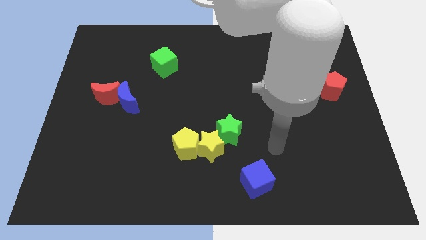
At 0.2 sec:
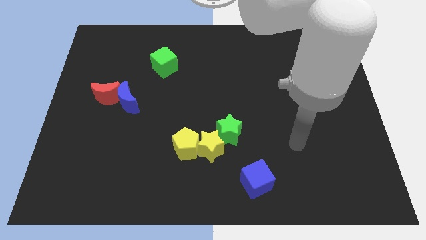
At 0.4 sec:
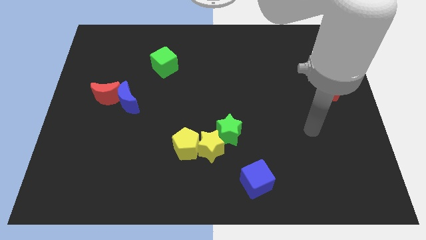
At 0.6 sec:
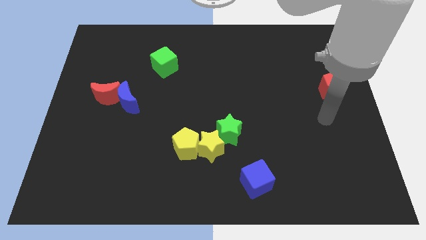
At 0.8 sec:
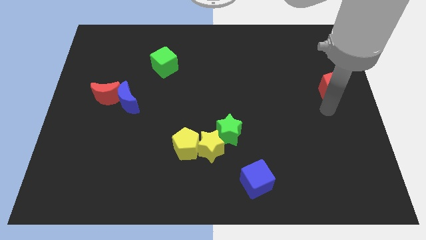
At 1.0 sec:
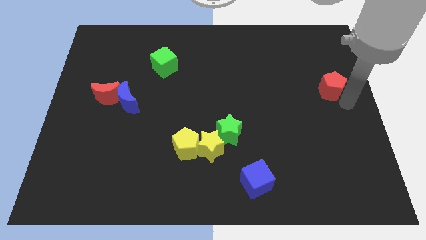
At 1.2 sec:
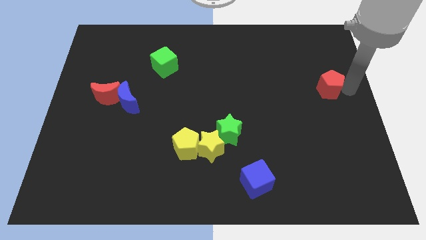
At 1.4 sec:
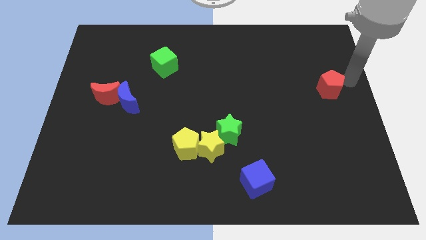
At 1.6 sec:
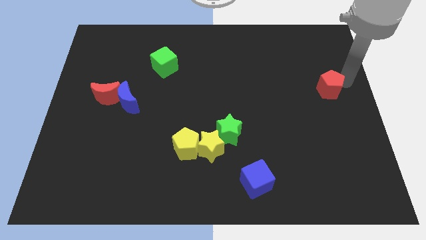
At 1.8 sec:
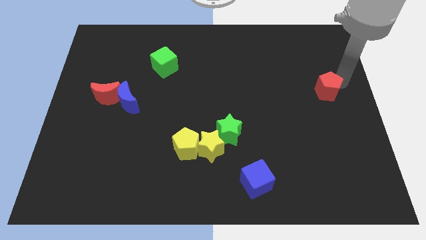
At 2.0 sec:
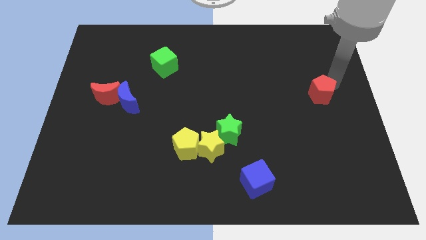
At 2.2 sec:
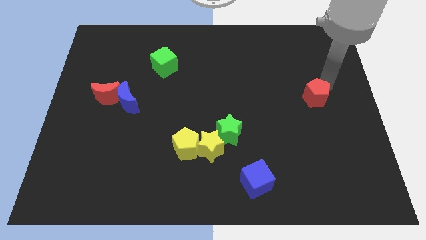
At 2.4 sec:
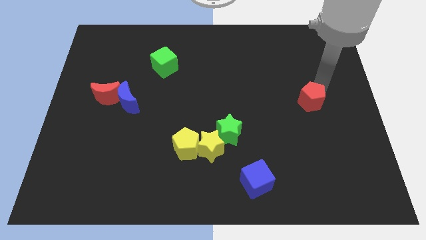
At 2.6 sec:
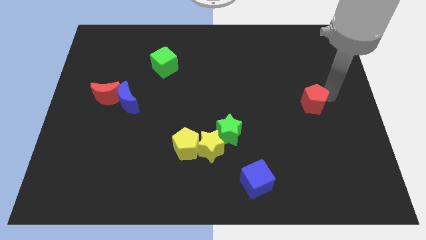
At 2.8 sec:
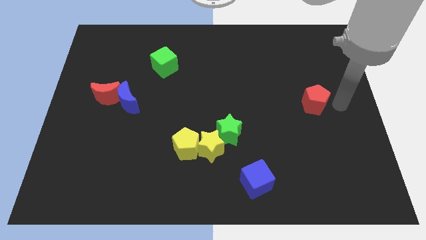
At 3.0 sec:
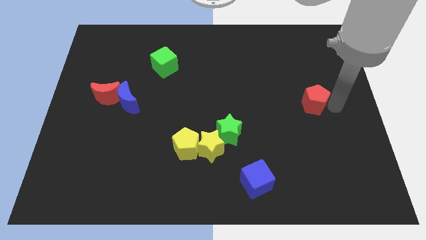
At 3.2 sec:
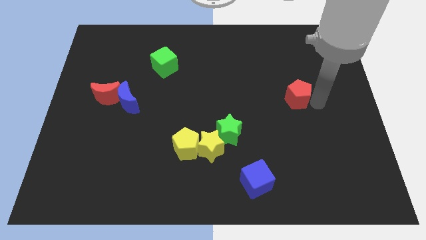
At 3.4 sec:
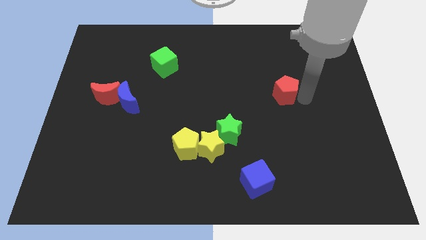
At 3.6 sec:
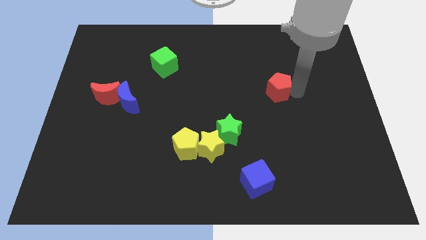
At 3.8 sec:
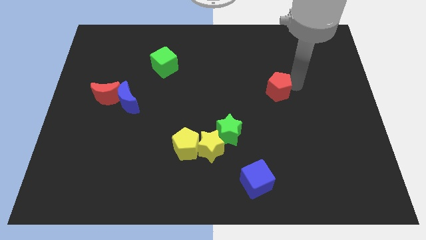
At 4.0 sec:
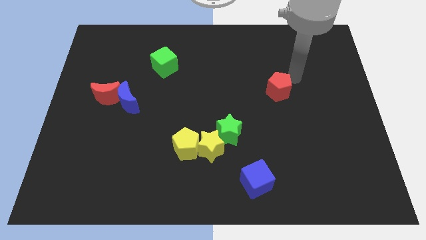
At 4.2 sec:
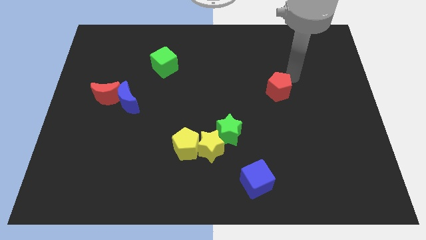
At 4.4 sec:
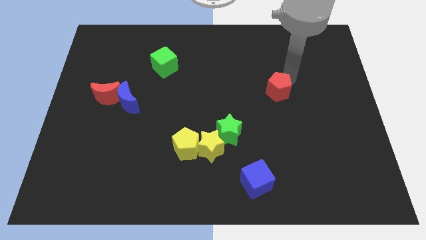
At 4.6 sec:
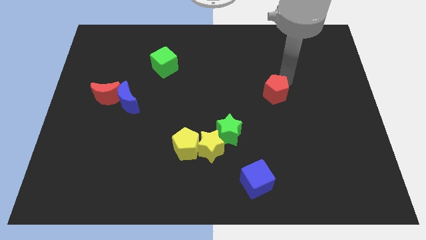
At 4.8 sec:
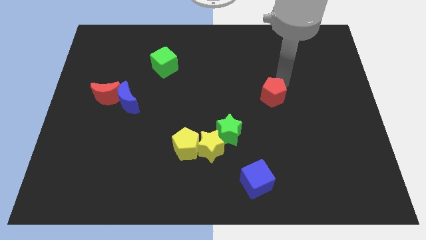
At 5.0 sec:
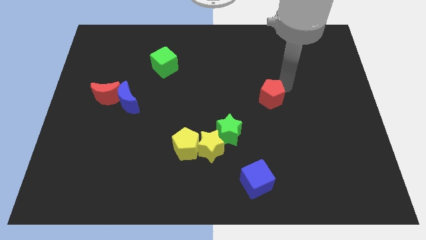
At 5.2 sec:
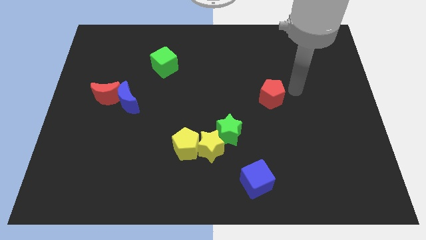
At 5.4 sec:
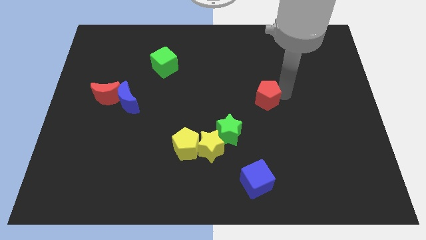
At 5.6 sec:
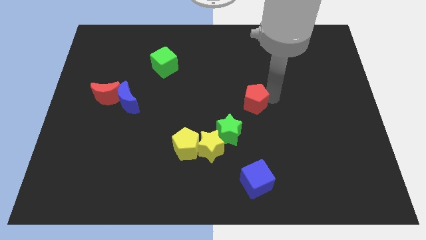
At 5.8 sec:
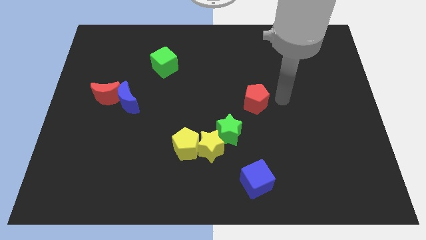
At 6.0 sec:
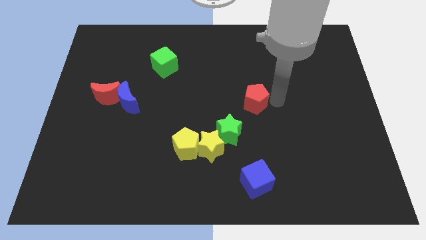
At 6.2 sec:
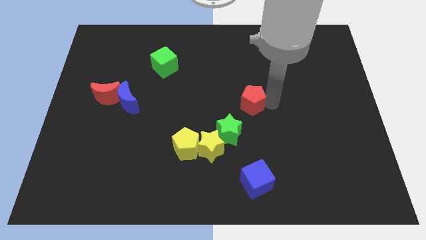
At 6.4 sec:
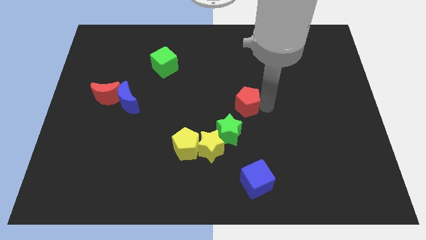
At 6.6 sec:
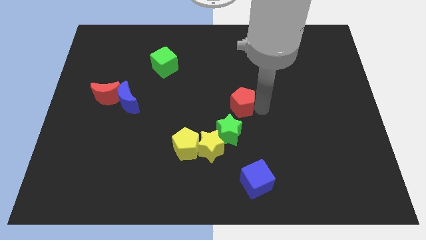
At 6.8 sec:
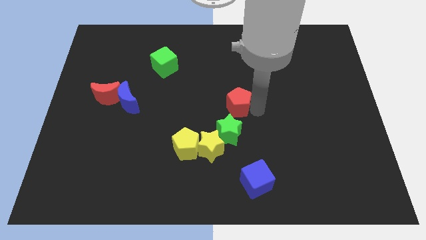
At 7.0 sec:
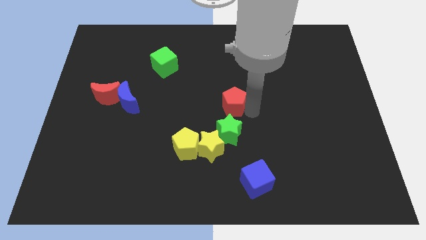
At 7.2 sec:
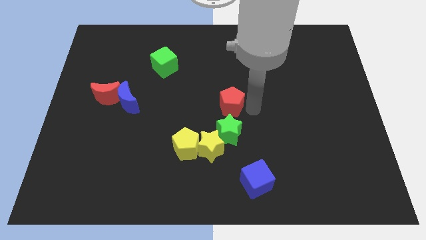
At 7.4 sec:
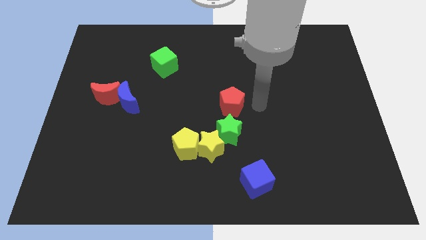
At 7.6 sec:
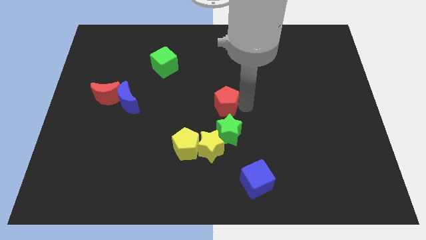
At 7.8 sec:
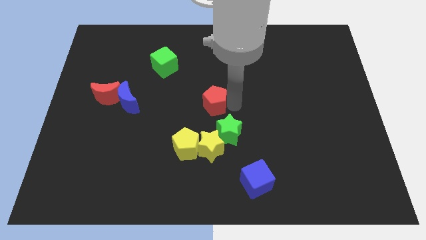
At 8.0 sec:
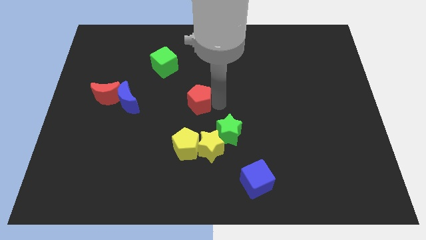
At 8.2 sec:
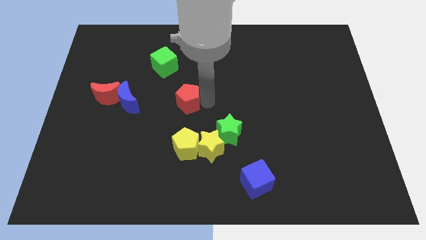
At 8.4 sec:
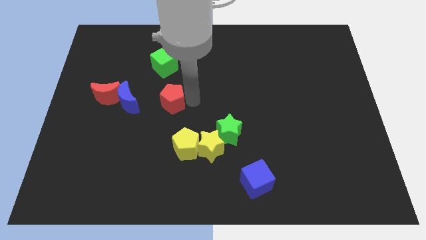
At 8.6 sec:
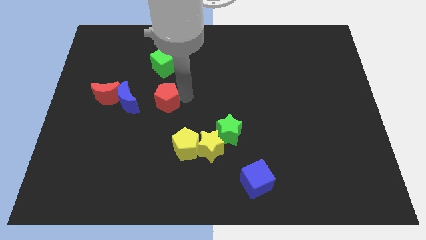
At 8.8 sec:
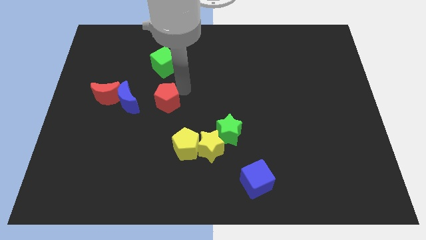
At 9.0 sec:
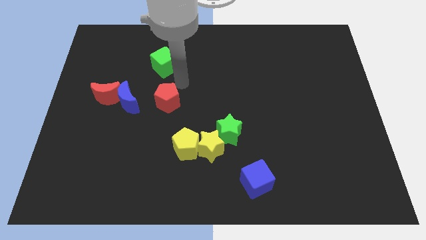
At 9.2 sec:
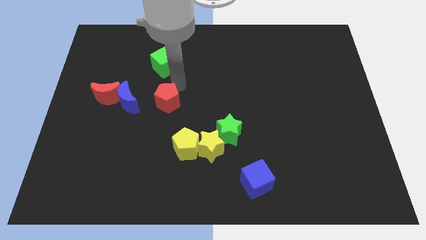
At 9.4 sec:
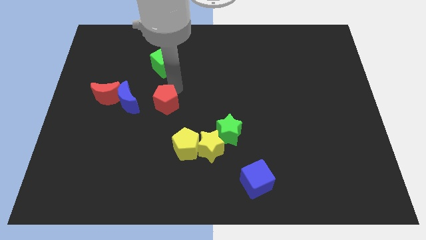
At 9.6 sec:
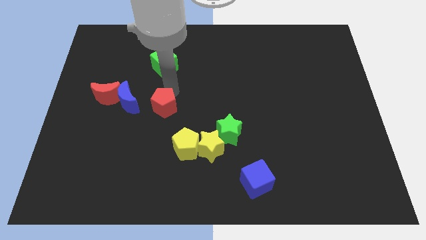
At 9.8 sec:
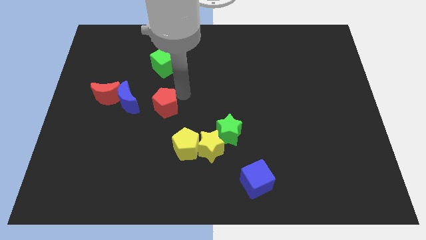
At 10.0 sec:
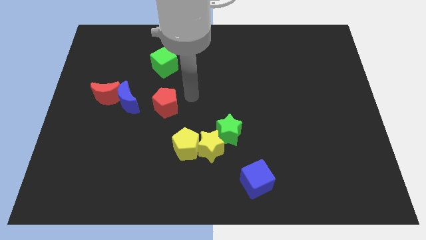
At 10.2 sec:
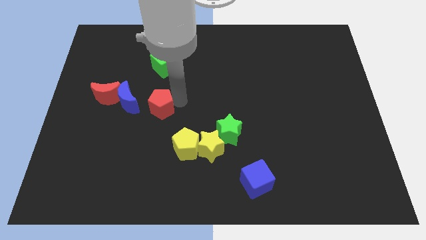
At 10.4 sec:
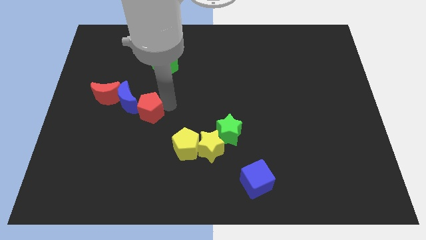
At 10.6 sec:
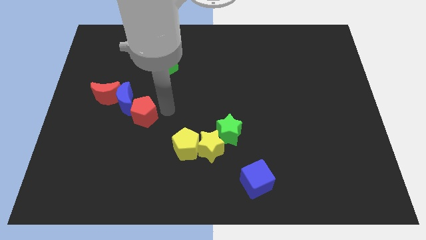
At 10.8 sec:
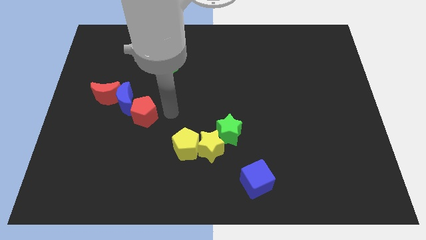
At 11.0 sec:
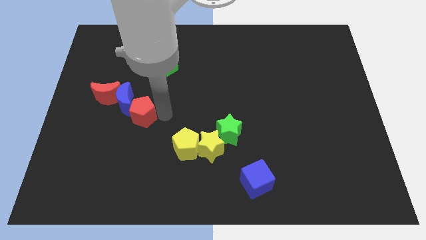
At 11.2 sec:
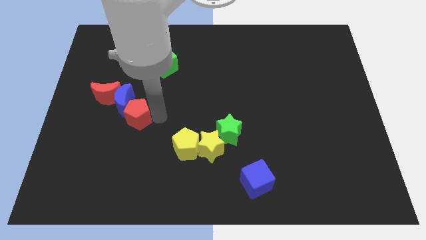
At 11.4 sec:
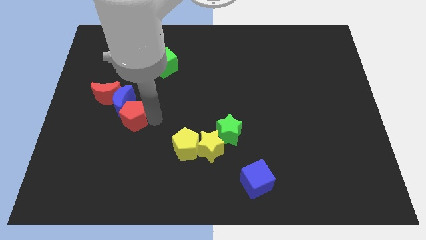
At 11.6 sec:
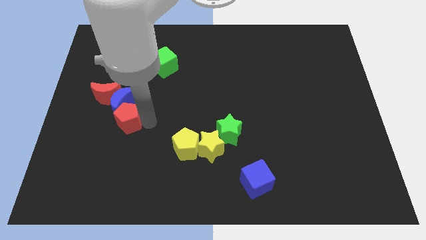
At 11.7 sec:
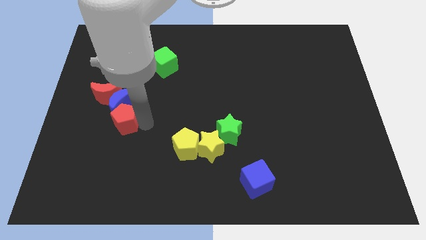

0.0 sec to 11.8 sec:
put the red pentagon diagonally down and to the left of the blue moon
